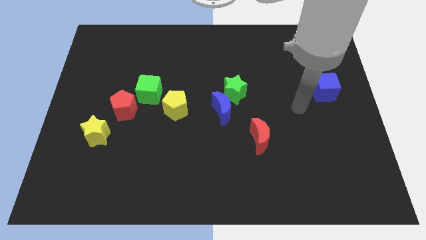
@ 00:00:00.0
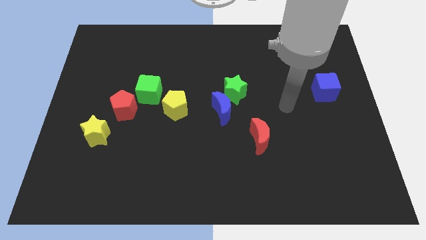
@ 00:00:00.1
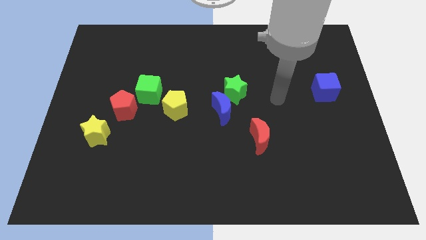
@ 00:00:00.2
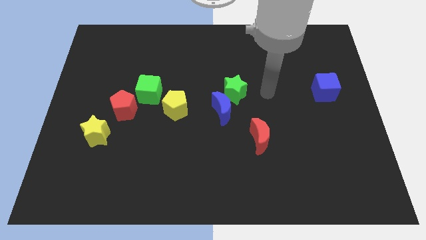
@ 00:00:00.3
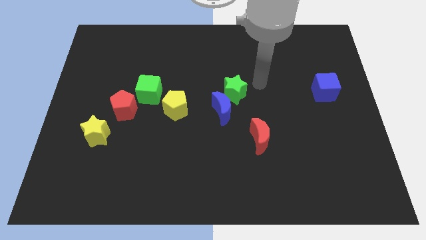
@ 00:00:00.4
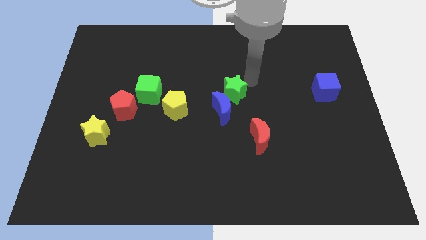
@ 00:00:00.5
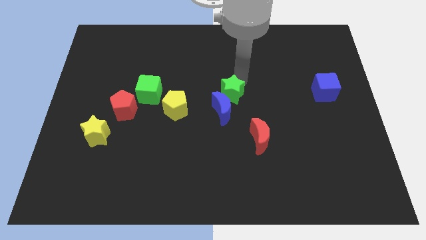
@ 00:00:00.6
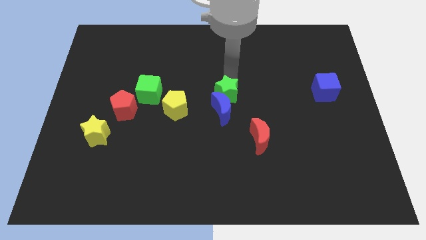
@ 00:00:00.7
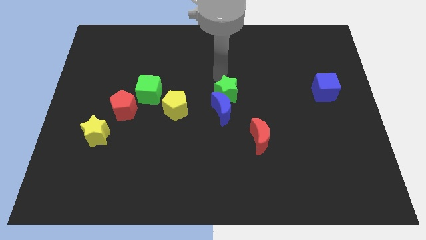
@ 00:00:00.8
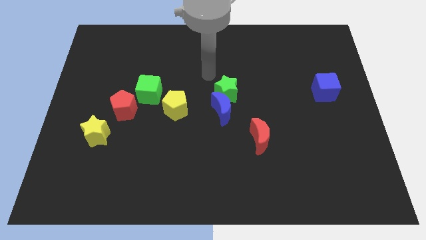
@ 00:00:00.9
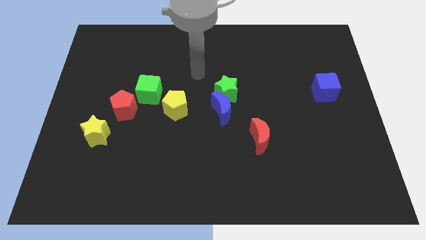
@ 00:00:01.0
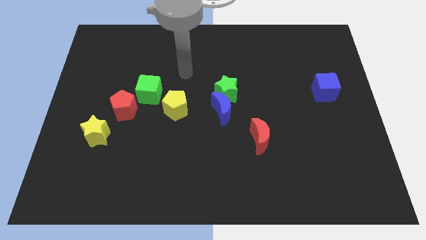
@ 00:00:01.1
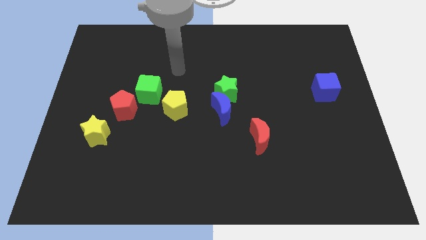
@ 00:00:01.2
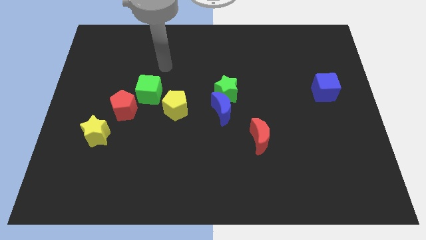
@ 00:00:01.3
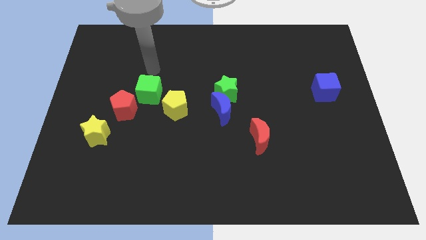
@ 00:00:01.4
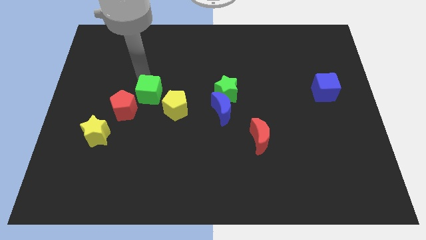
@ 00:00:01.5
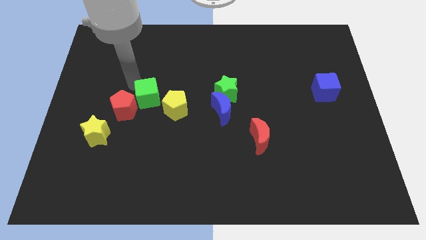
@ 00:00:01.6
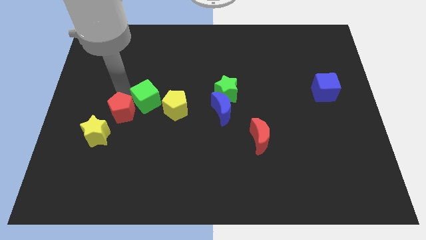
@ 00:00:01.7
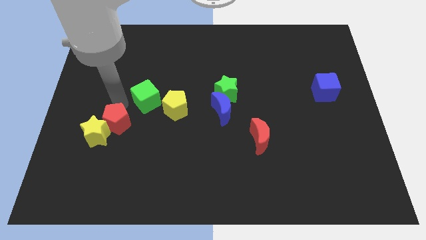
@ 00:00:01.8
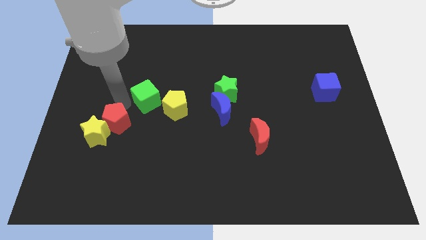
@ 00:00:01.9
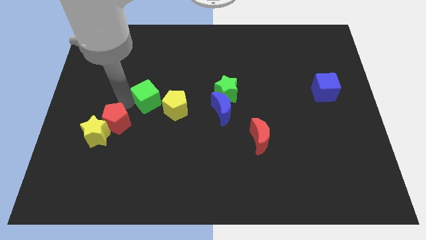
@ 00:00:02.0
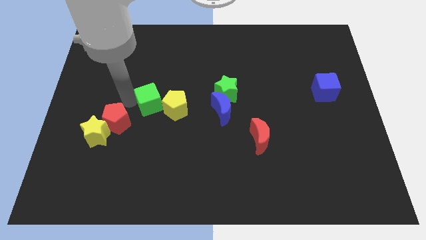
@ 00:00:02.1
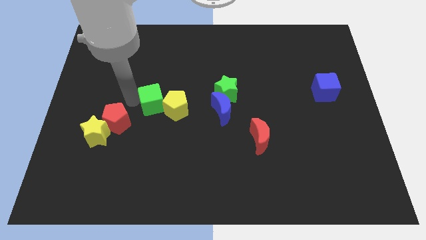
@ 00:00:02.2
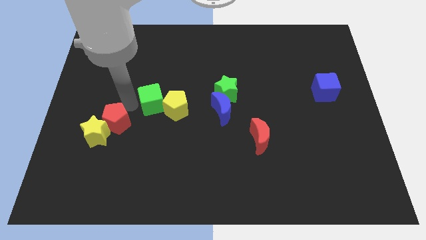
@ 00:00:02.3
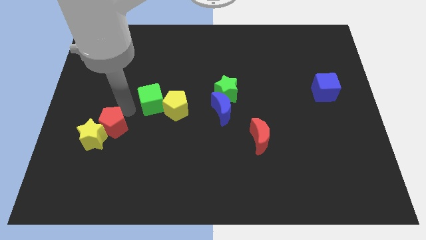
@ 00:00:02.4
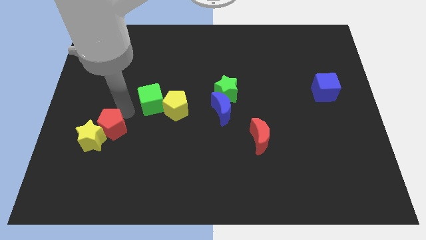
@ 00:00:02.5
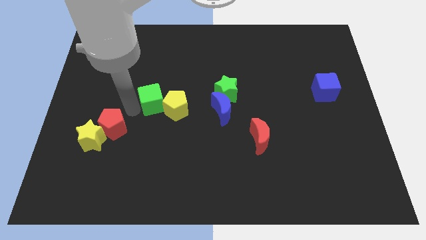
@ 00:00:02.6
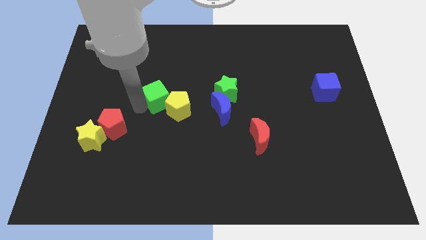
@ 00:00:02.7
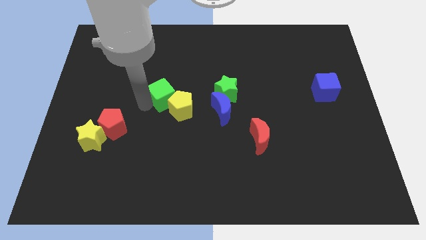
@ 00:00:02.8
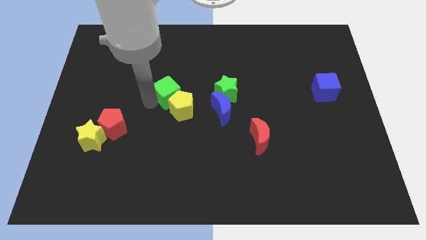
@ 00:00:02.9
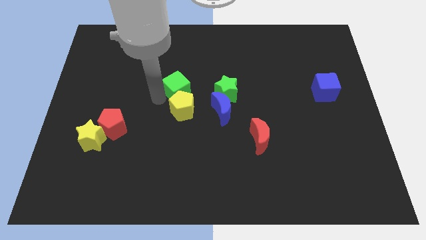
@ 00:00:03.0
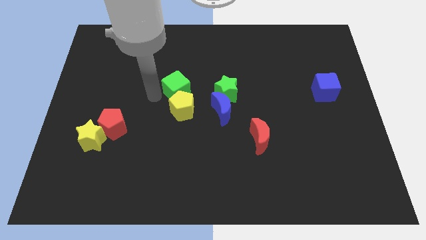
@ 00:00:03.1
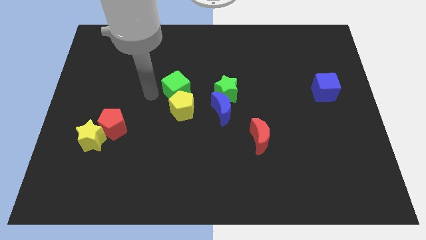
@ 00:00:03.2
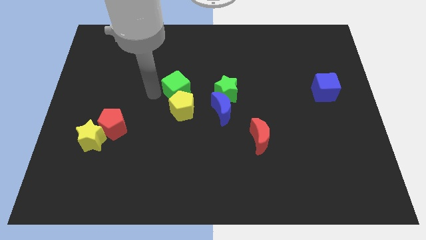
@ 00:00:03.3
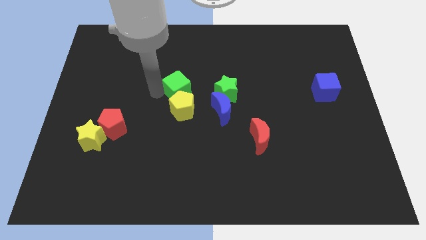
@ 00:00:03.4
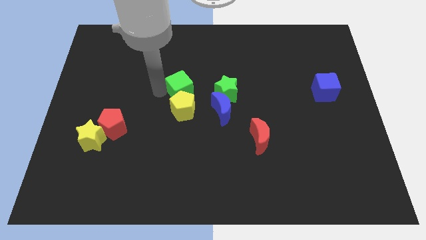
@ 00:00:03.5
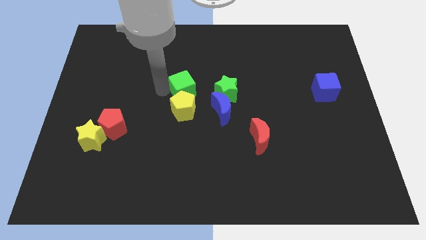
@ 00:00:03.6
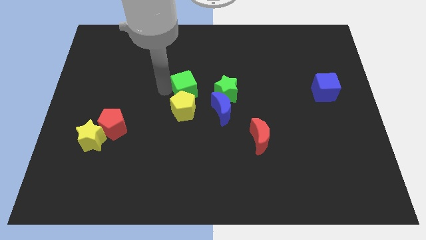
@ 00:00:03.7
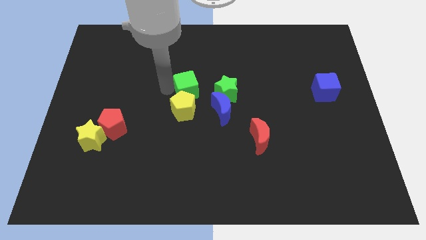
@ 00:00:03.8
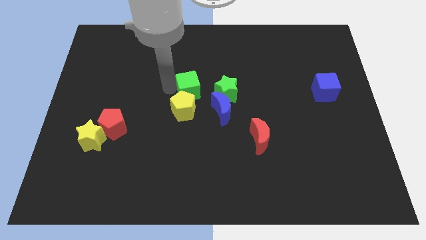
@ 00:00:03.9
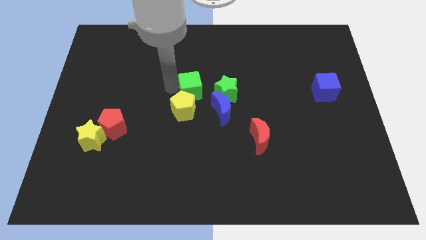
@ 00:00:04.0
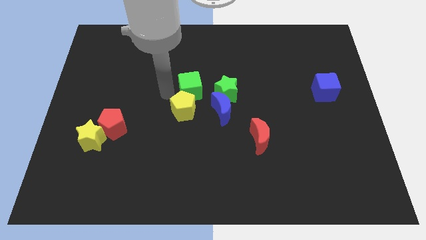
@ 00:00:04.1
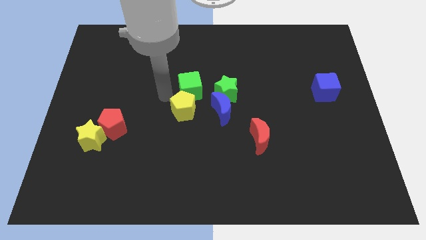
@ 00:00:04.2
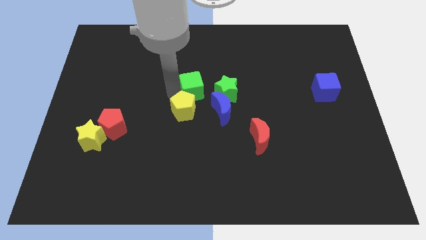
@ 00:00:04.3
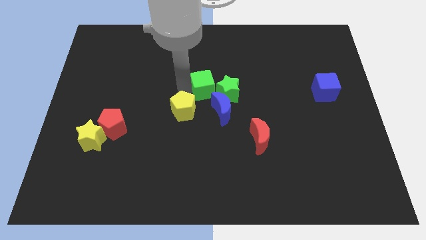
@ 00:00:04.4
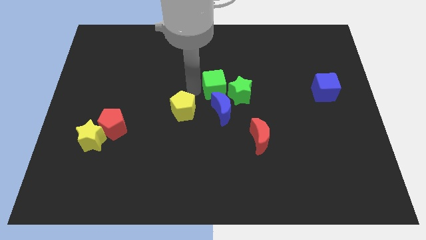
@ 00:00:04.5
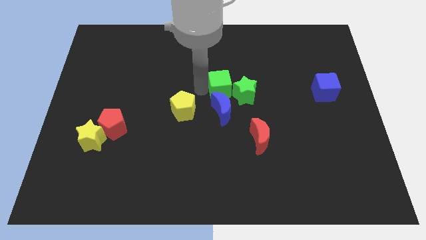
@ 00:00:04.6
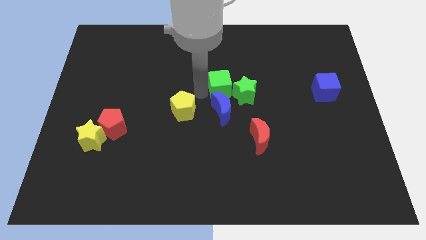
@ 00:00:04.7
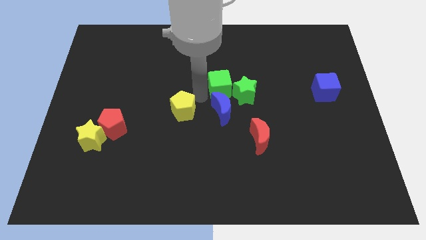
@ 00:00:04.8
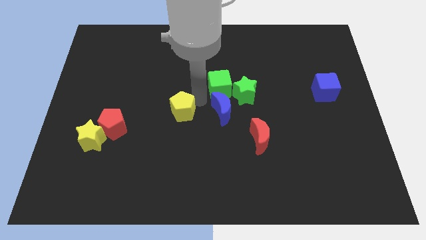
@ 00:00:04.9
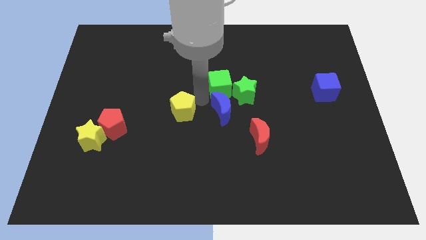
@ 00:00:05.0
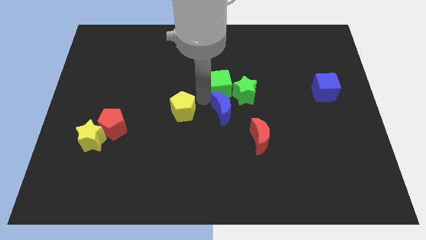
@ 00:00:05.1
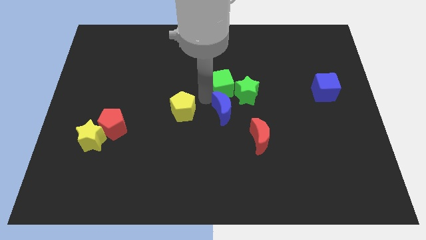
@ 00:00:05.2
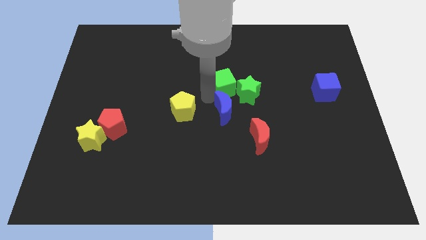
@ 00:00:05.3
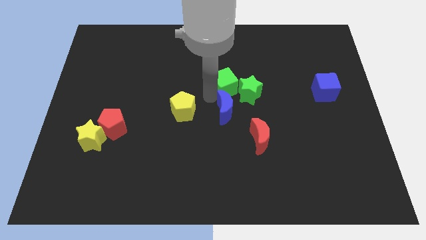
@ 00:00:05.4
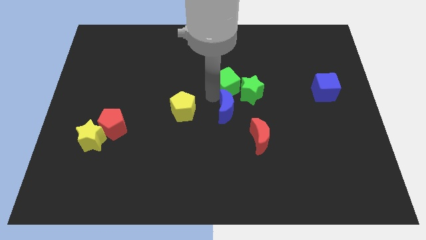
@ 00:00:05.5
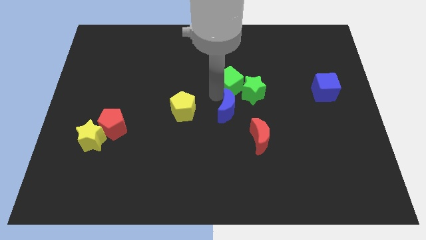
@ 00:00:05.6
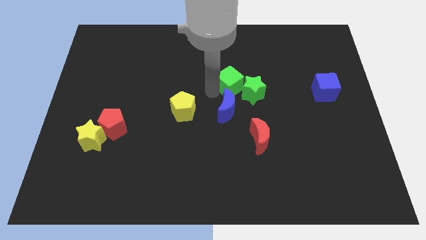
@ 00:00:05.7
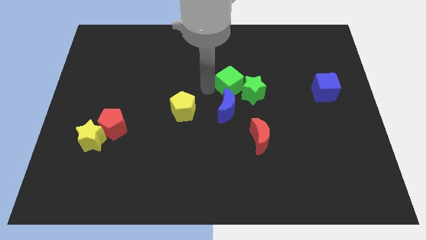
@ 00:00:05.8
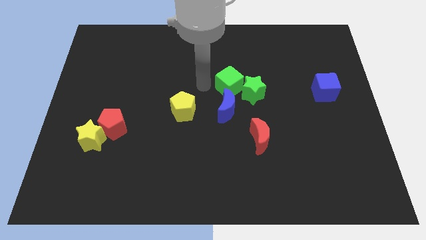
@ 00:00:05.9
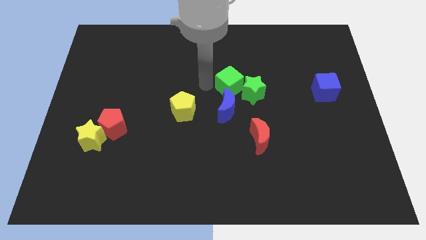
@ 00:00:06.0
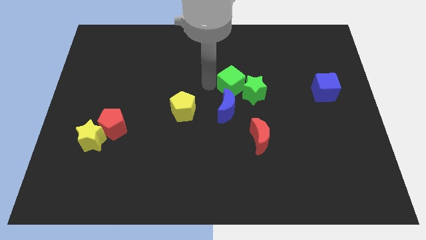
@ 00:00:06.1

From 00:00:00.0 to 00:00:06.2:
move the green cube to the right

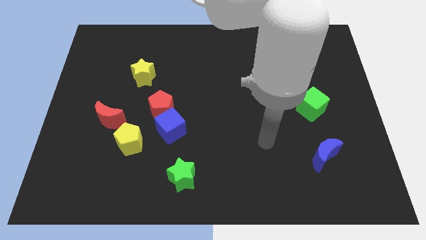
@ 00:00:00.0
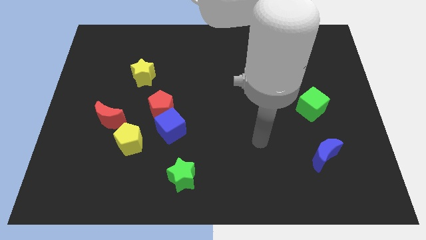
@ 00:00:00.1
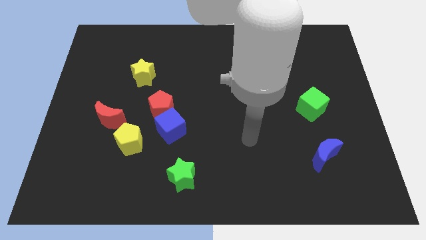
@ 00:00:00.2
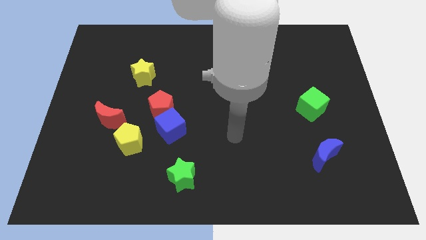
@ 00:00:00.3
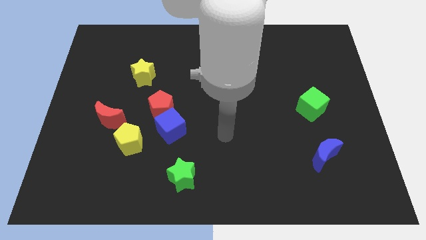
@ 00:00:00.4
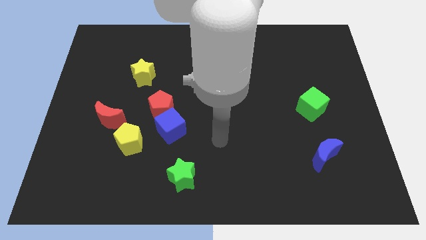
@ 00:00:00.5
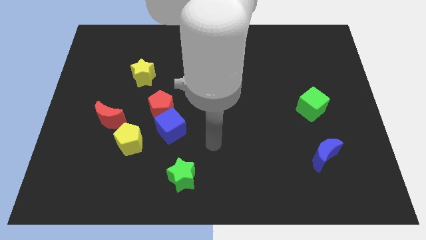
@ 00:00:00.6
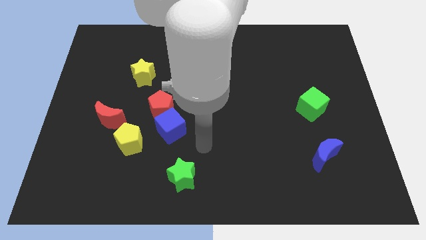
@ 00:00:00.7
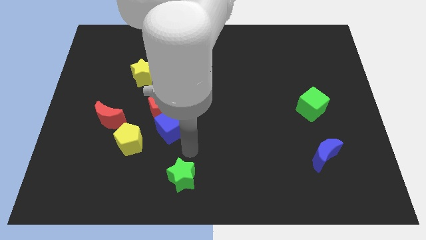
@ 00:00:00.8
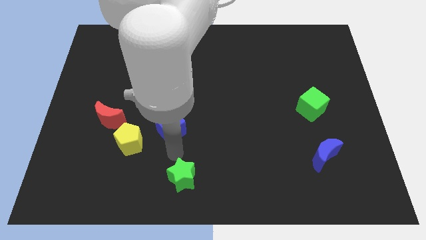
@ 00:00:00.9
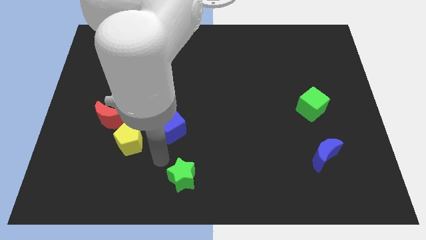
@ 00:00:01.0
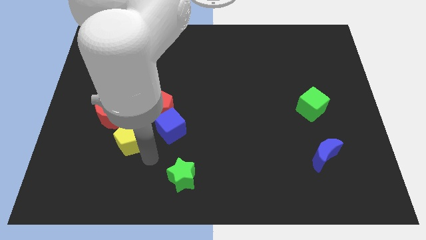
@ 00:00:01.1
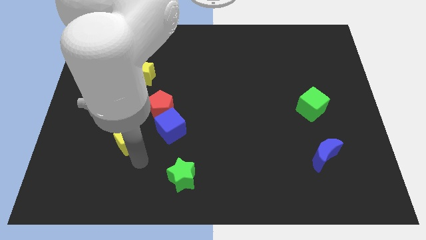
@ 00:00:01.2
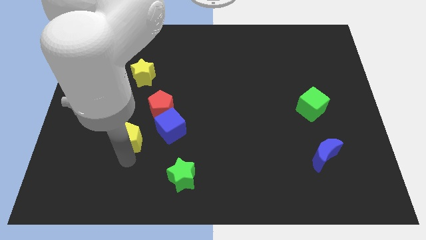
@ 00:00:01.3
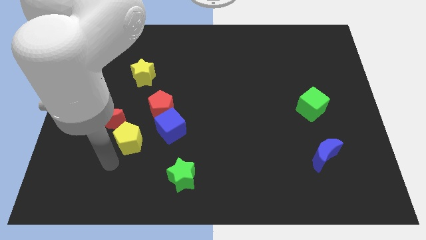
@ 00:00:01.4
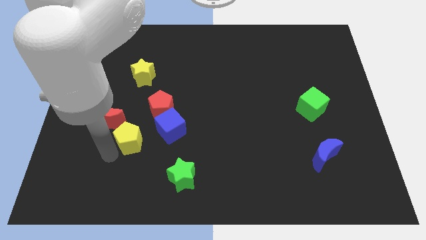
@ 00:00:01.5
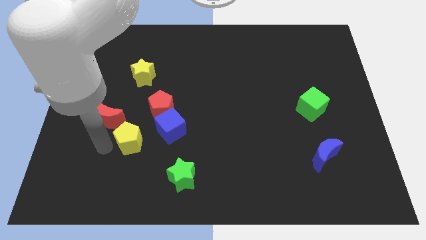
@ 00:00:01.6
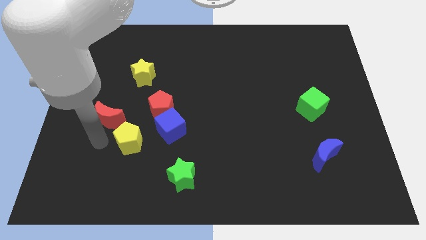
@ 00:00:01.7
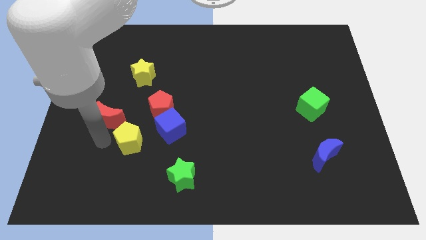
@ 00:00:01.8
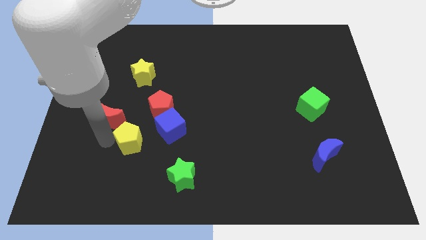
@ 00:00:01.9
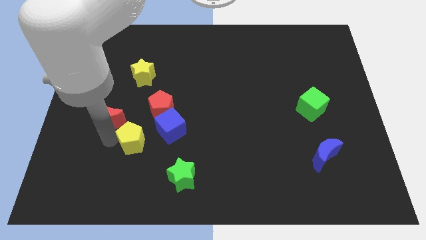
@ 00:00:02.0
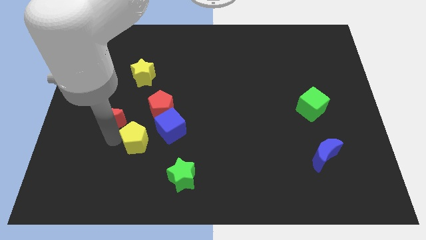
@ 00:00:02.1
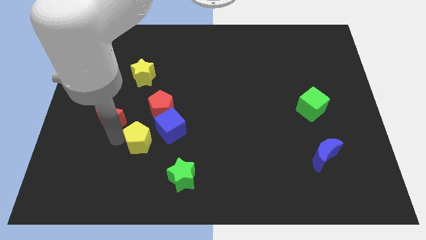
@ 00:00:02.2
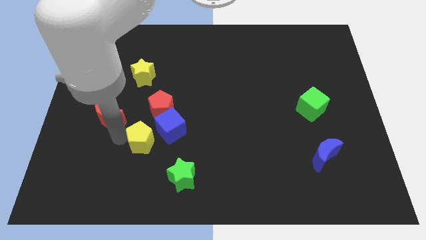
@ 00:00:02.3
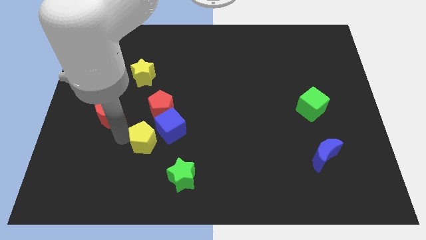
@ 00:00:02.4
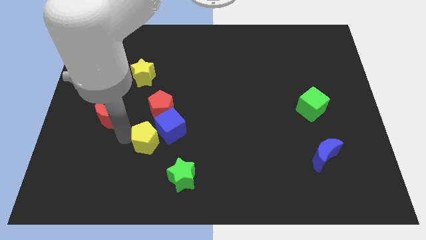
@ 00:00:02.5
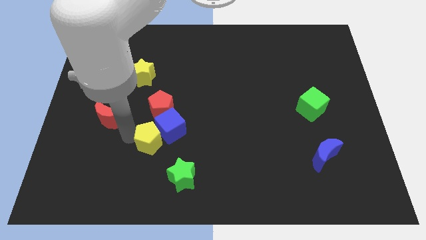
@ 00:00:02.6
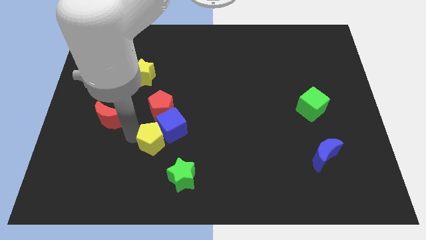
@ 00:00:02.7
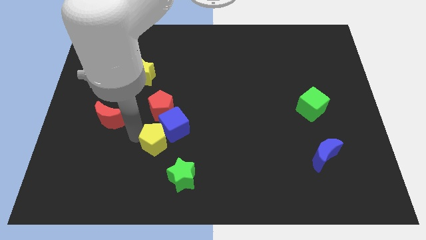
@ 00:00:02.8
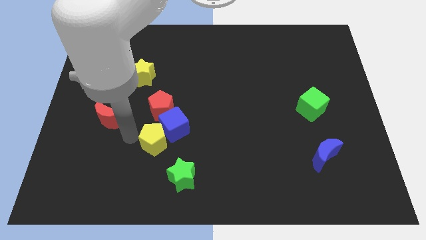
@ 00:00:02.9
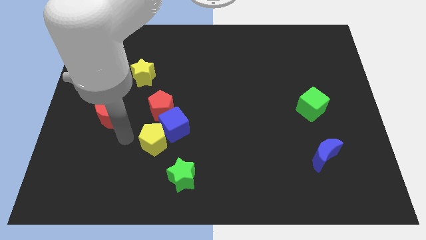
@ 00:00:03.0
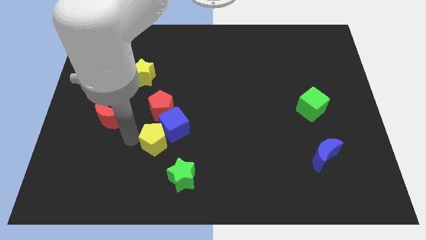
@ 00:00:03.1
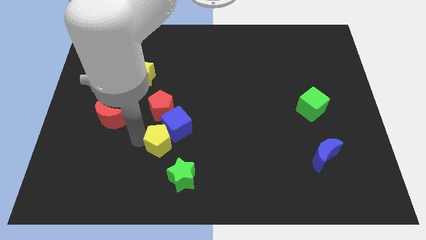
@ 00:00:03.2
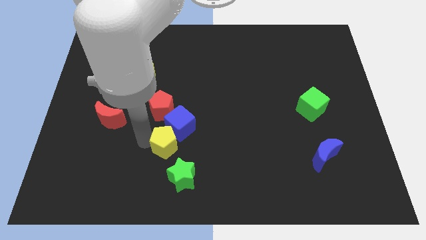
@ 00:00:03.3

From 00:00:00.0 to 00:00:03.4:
push the yellow pentagon right a bit
